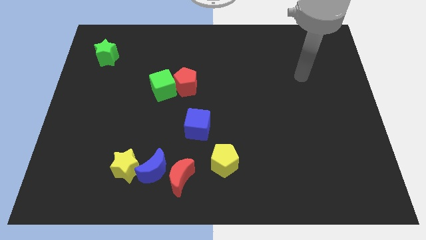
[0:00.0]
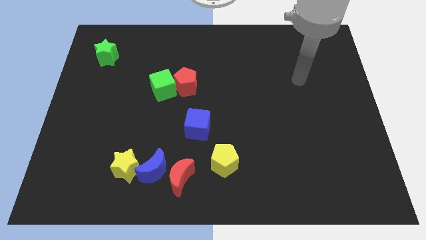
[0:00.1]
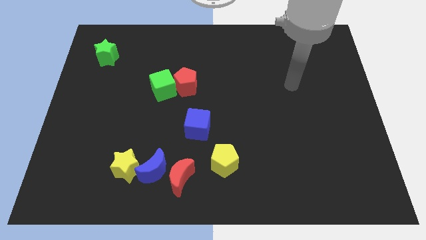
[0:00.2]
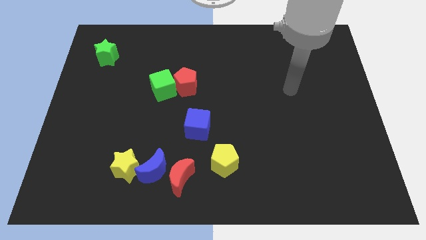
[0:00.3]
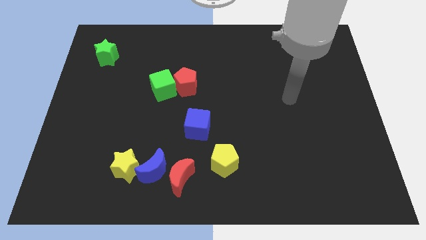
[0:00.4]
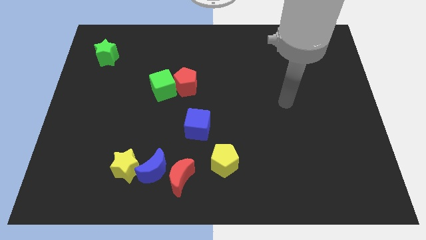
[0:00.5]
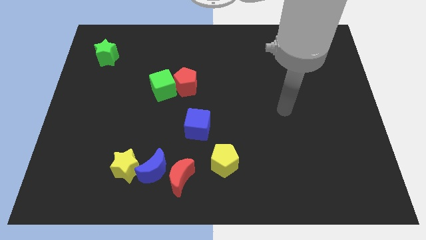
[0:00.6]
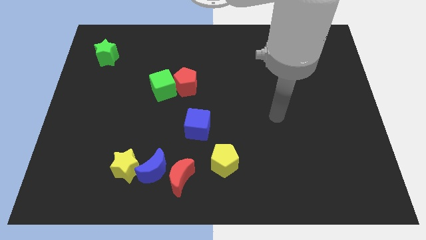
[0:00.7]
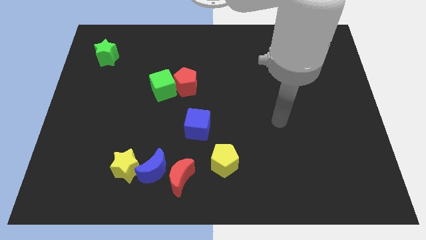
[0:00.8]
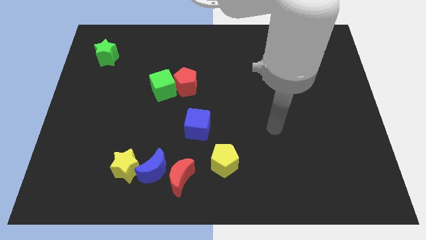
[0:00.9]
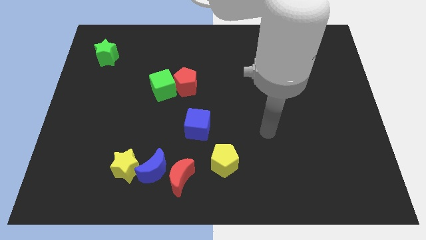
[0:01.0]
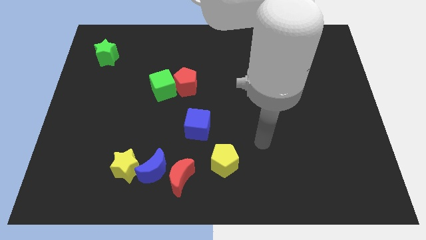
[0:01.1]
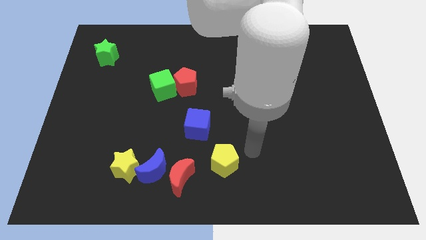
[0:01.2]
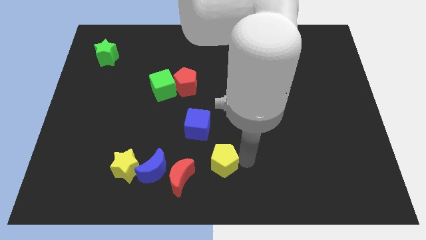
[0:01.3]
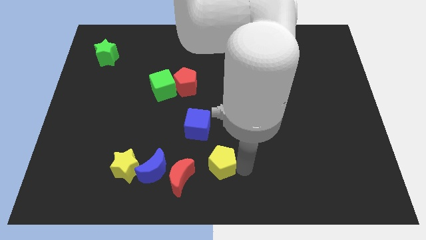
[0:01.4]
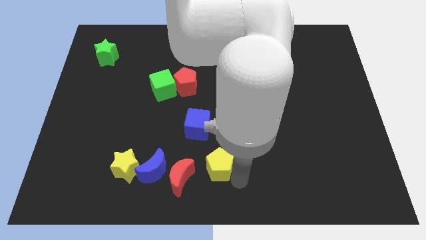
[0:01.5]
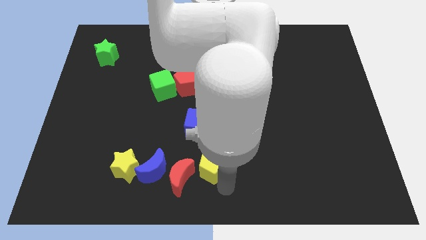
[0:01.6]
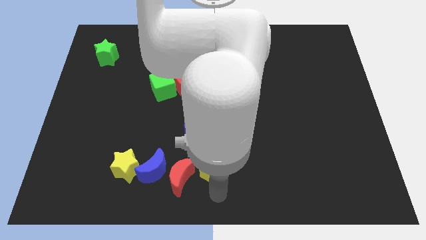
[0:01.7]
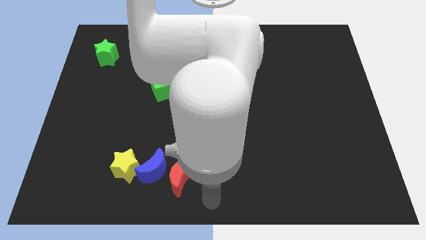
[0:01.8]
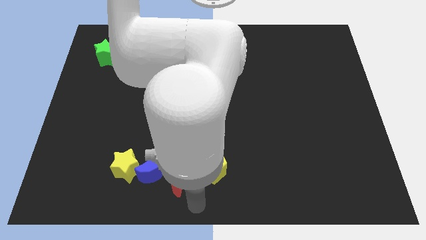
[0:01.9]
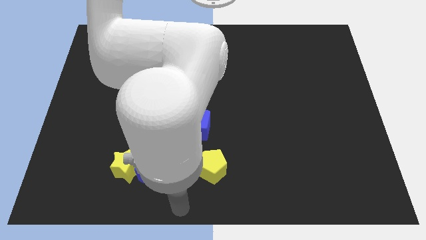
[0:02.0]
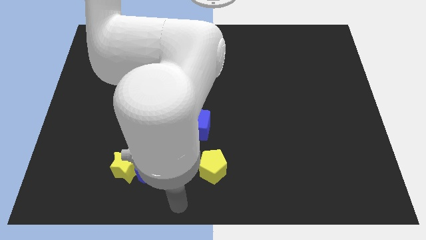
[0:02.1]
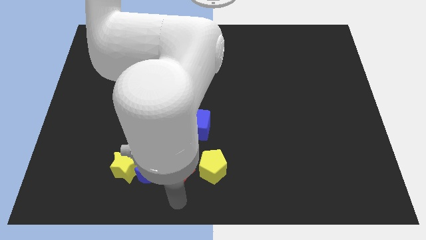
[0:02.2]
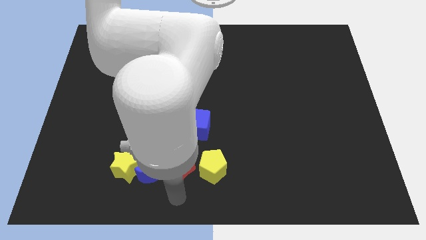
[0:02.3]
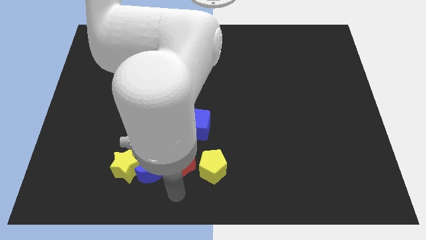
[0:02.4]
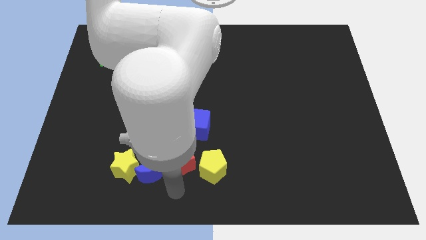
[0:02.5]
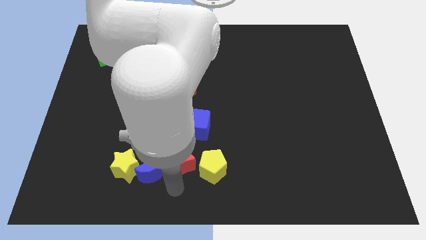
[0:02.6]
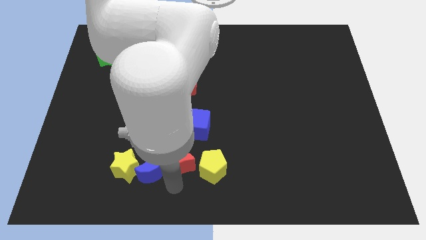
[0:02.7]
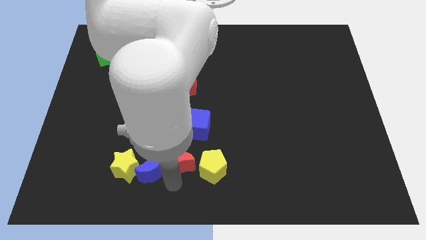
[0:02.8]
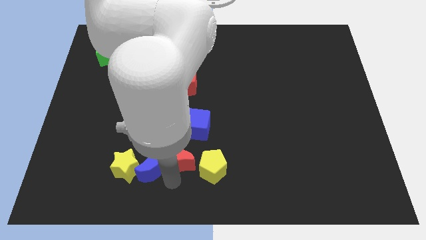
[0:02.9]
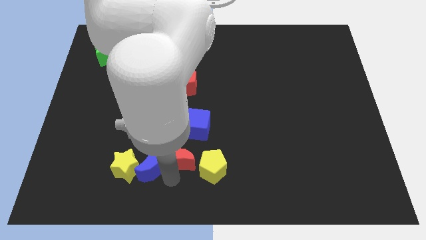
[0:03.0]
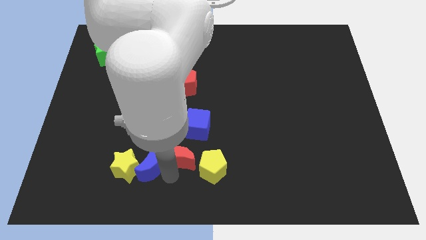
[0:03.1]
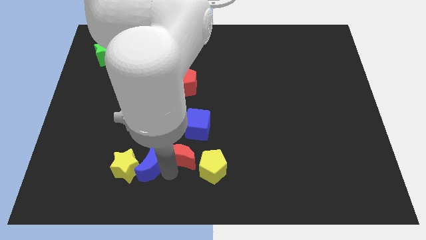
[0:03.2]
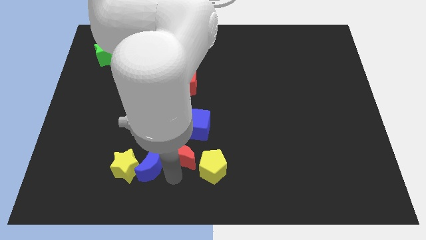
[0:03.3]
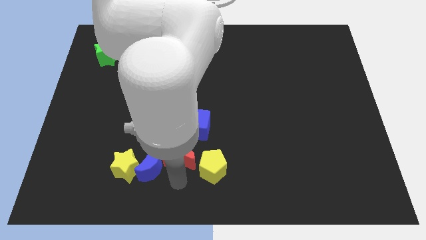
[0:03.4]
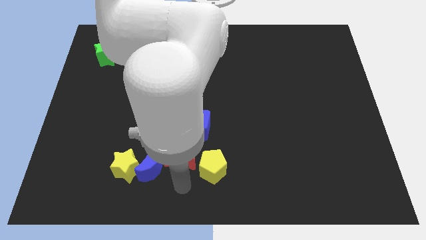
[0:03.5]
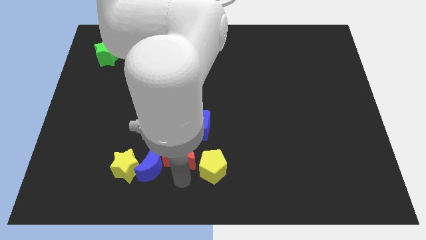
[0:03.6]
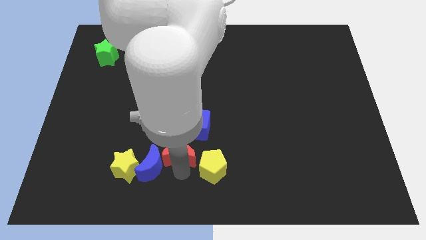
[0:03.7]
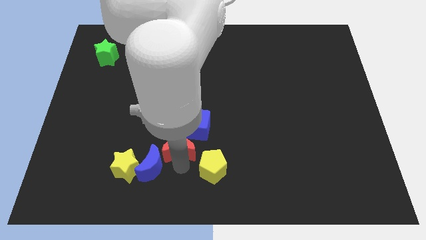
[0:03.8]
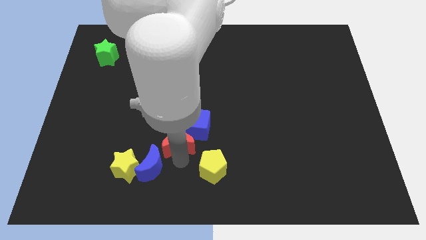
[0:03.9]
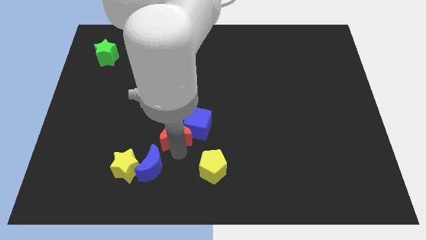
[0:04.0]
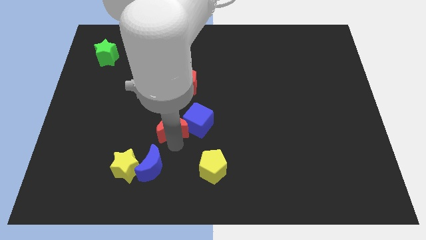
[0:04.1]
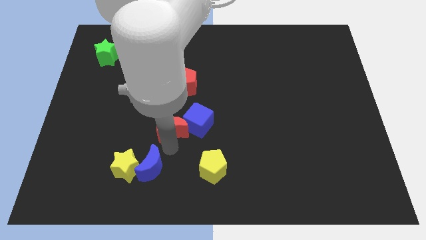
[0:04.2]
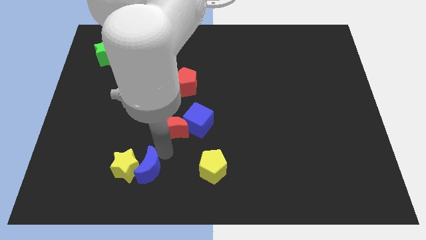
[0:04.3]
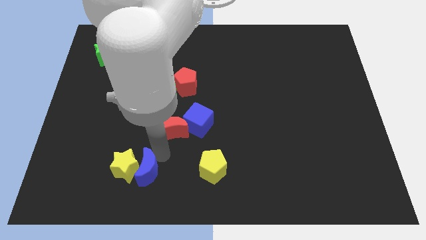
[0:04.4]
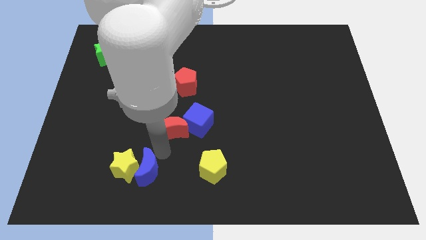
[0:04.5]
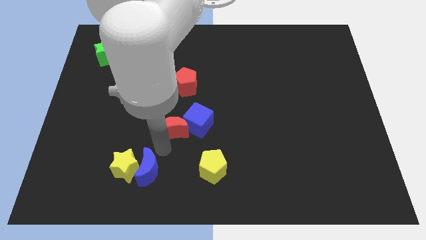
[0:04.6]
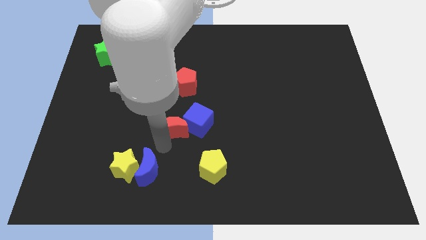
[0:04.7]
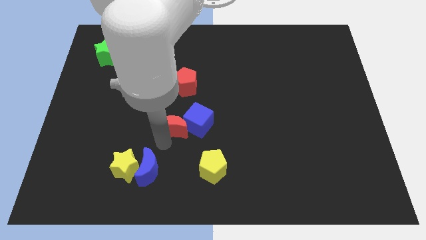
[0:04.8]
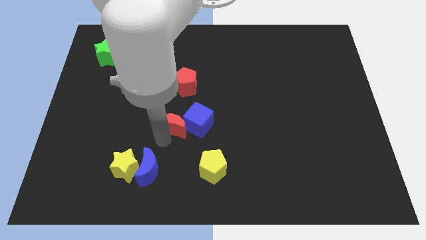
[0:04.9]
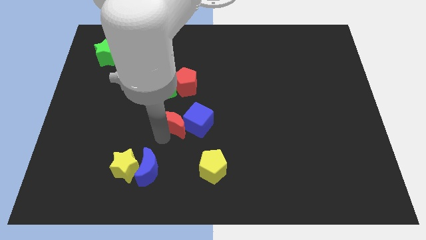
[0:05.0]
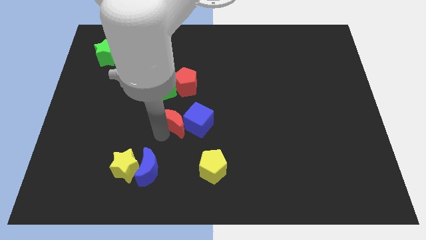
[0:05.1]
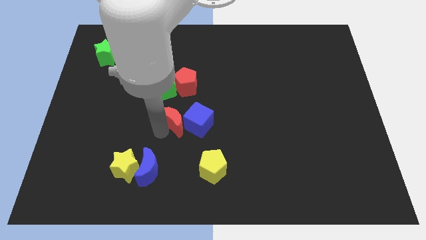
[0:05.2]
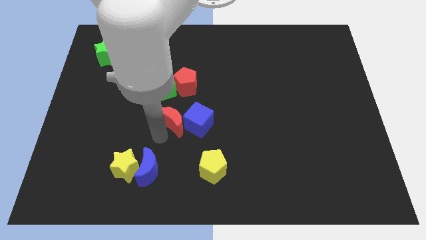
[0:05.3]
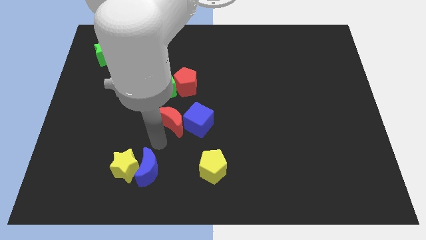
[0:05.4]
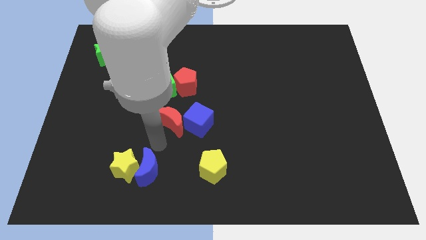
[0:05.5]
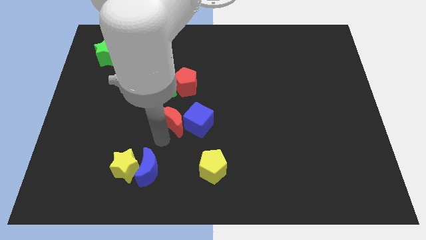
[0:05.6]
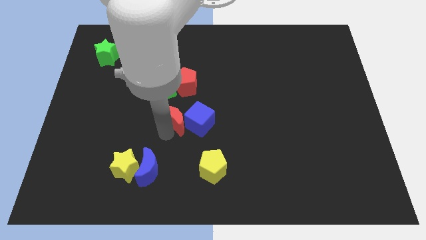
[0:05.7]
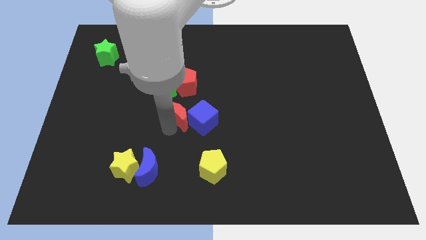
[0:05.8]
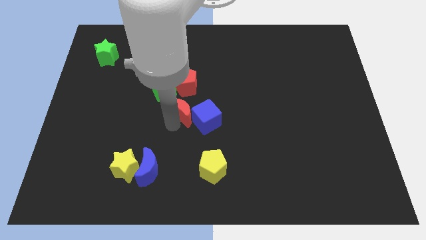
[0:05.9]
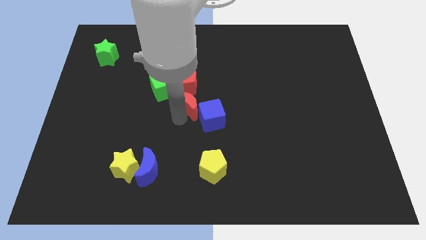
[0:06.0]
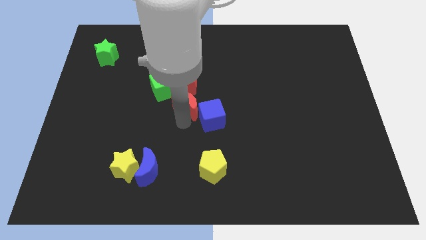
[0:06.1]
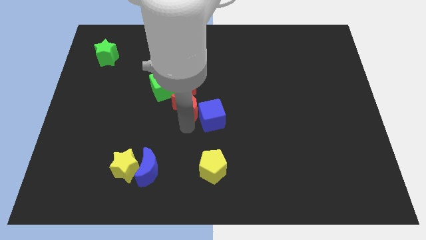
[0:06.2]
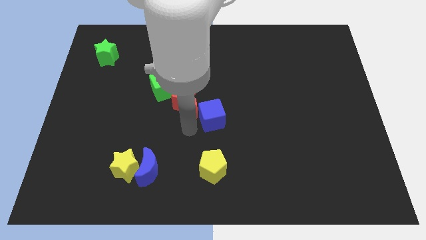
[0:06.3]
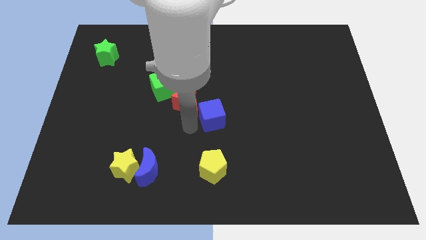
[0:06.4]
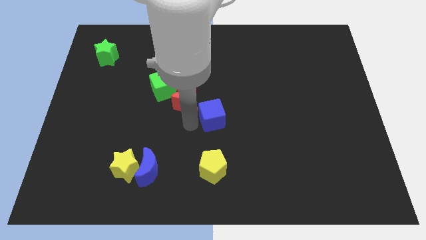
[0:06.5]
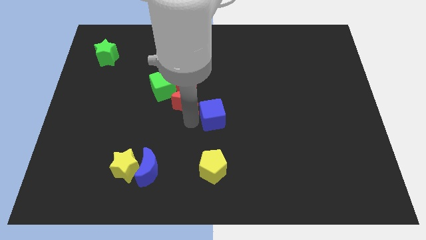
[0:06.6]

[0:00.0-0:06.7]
move the red moon to the red pentagon

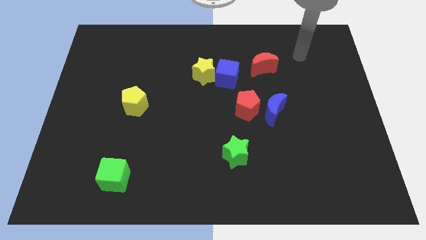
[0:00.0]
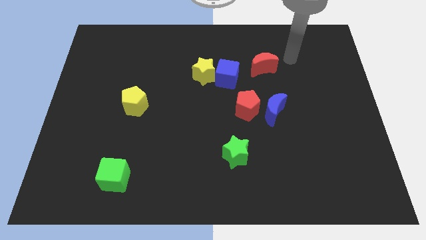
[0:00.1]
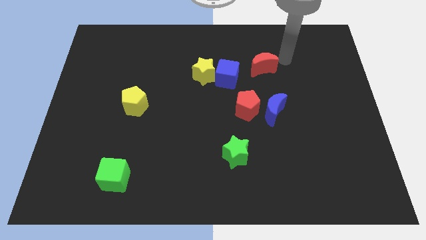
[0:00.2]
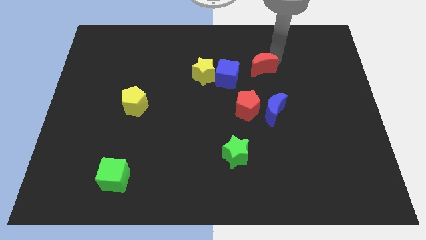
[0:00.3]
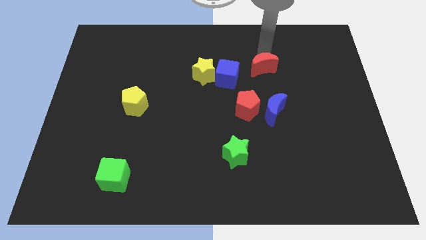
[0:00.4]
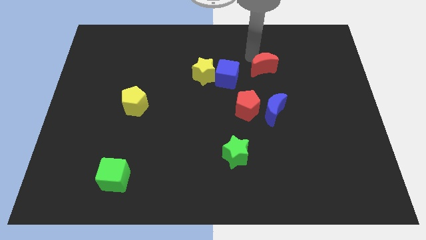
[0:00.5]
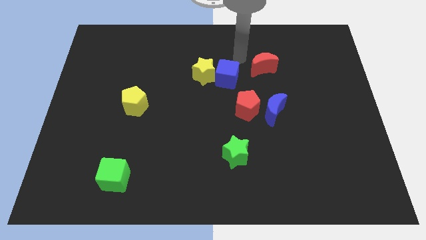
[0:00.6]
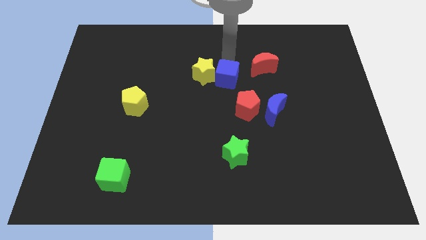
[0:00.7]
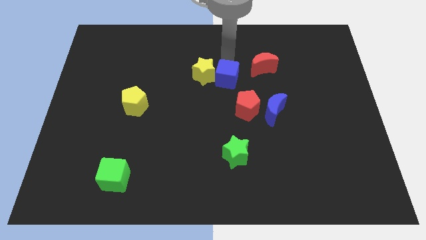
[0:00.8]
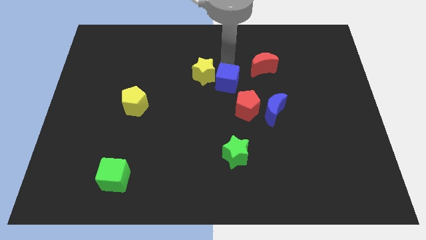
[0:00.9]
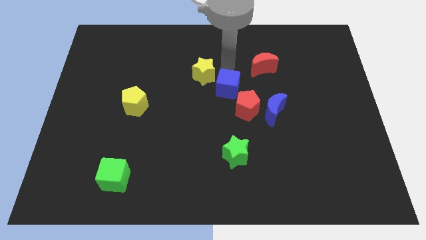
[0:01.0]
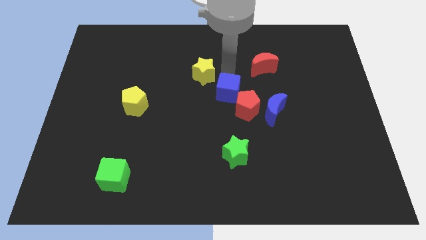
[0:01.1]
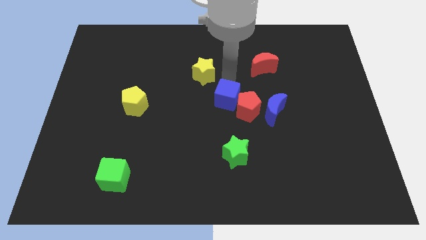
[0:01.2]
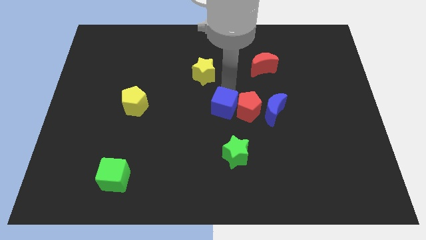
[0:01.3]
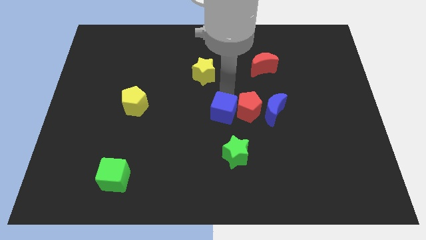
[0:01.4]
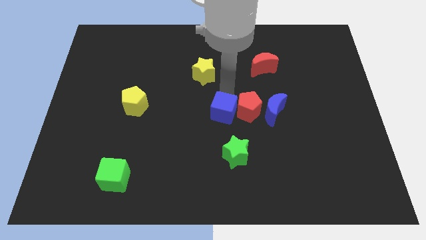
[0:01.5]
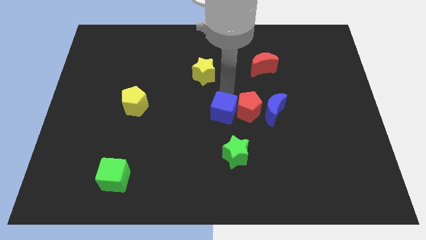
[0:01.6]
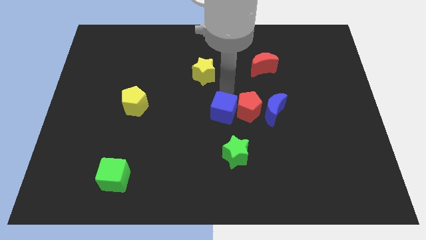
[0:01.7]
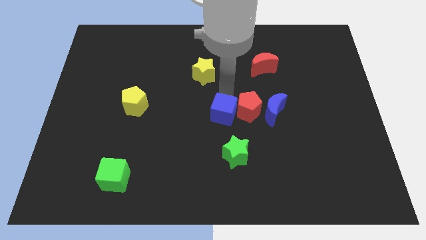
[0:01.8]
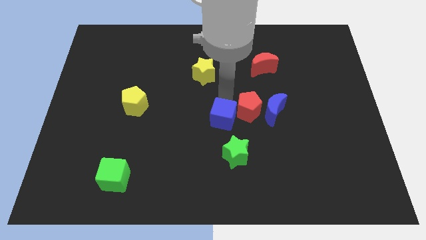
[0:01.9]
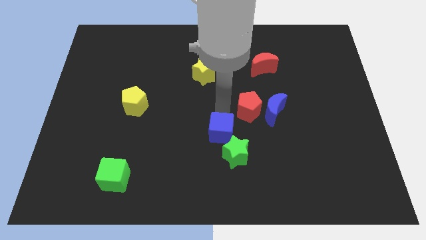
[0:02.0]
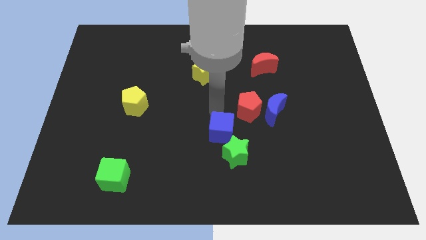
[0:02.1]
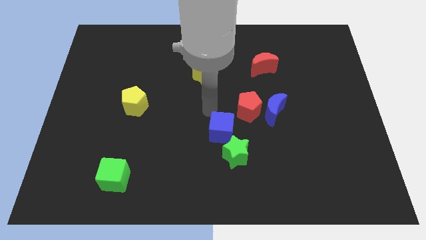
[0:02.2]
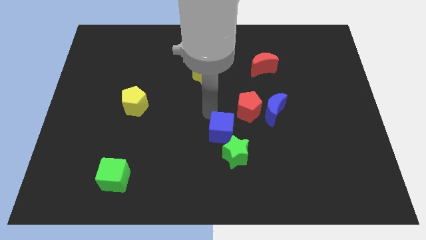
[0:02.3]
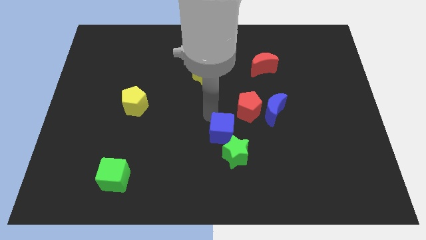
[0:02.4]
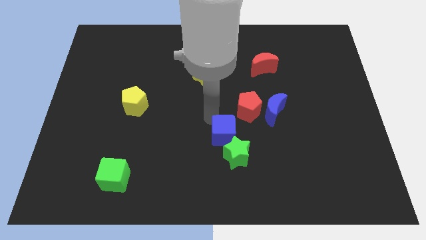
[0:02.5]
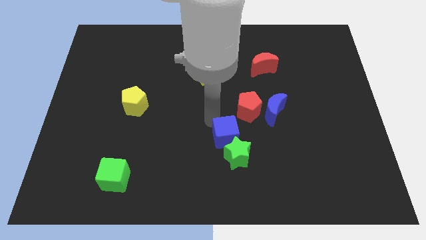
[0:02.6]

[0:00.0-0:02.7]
move the blue cube close to the green star
